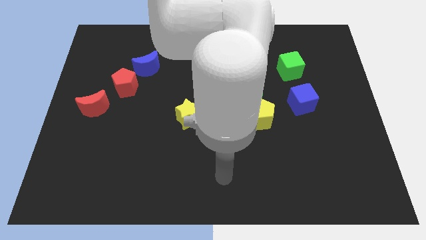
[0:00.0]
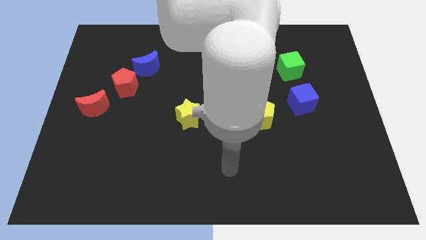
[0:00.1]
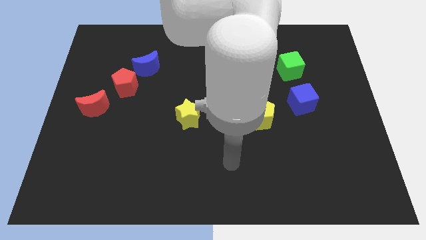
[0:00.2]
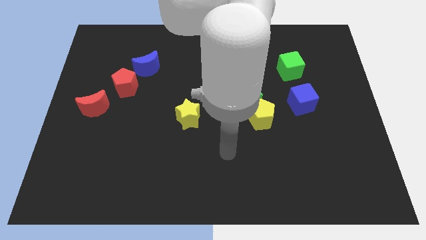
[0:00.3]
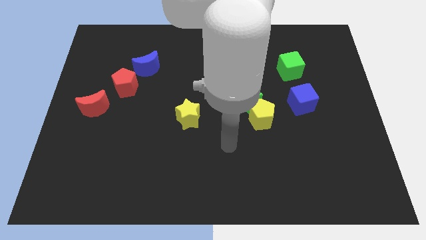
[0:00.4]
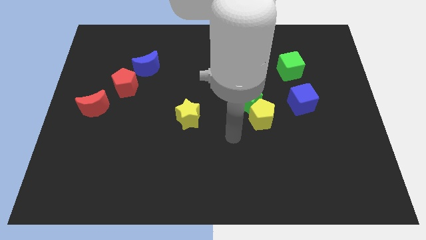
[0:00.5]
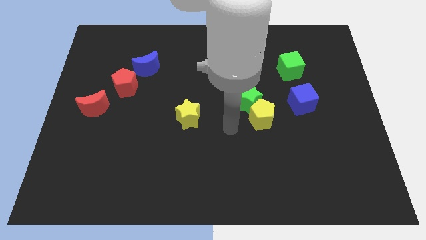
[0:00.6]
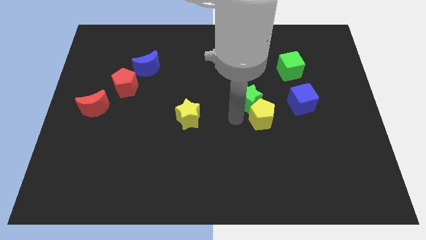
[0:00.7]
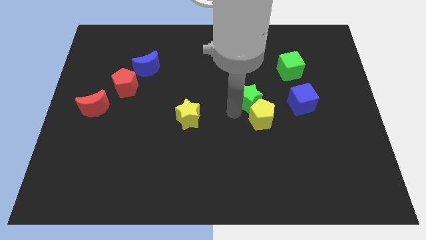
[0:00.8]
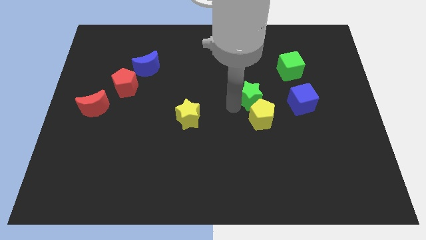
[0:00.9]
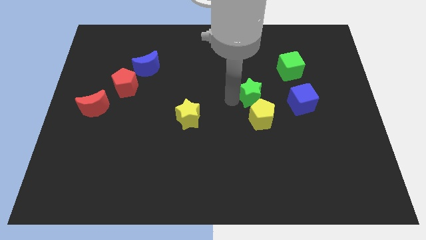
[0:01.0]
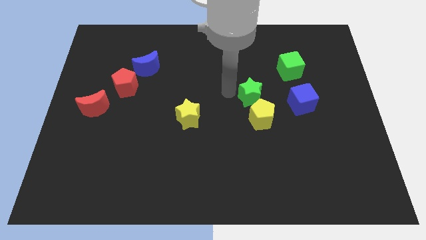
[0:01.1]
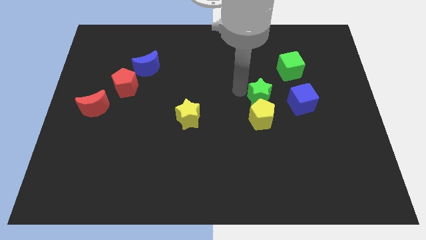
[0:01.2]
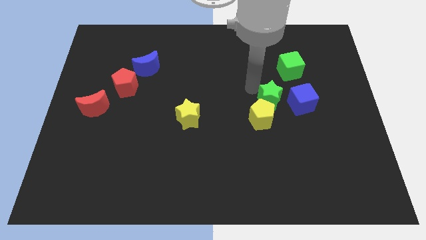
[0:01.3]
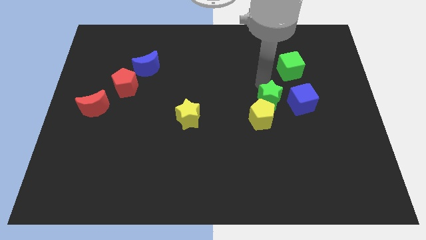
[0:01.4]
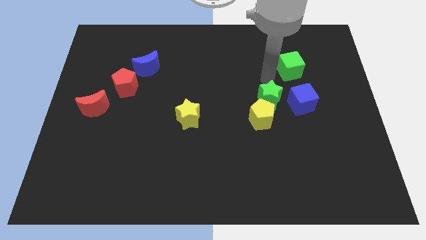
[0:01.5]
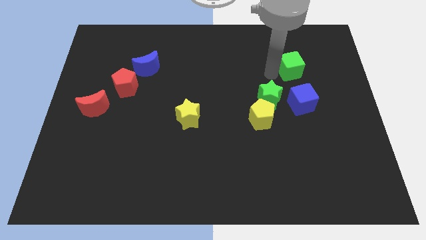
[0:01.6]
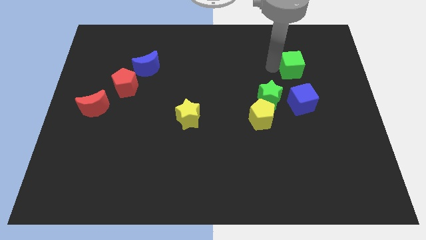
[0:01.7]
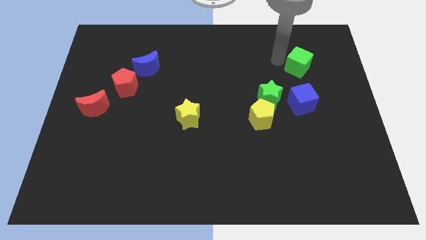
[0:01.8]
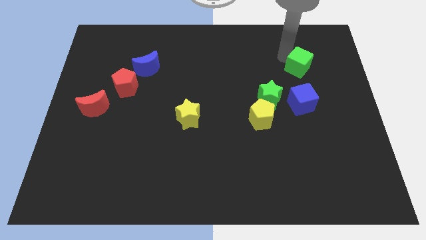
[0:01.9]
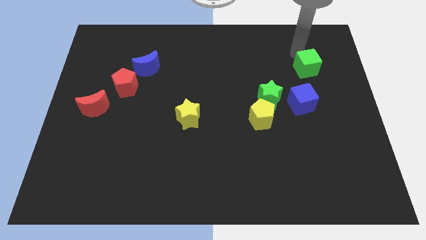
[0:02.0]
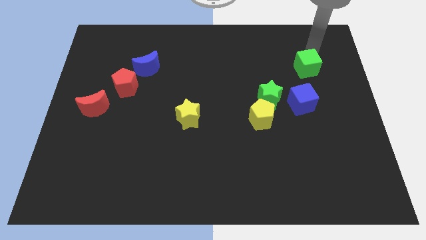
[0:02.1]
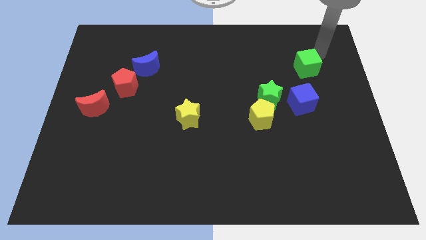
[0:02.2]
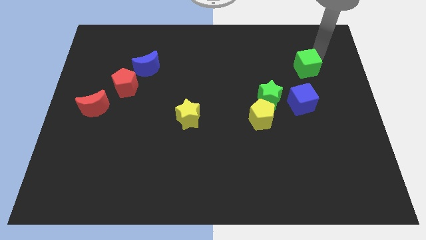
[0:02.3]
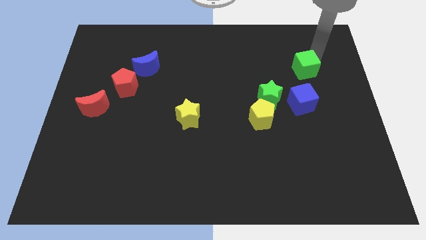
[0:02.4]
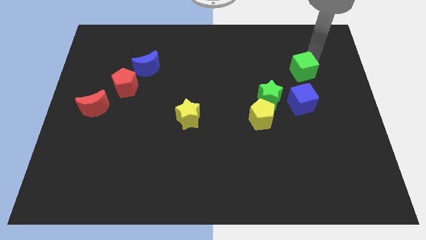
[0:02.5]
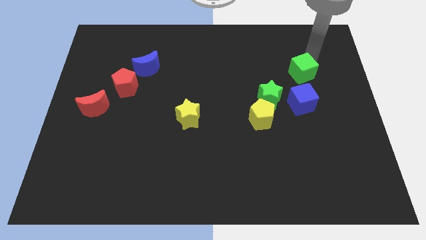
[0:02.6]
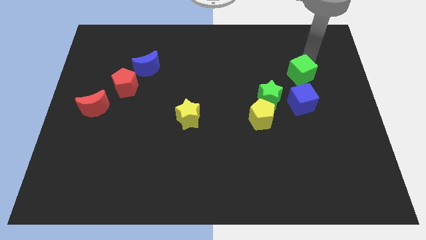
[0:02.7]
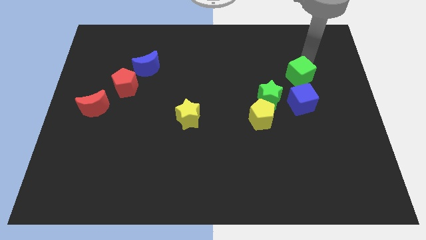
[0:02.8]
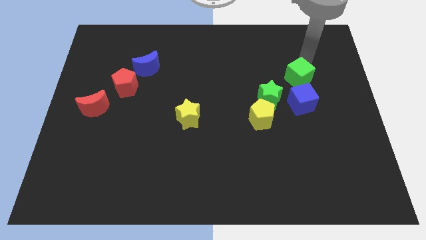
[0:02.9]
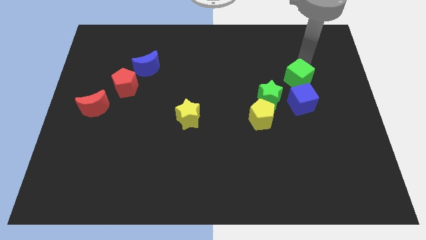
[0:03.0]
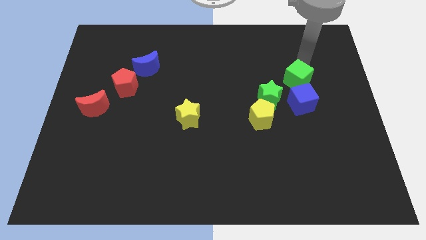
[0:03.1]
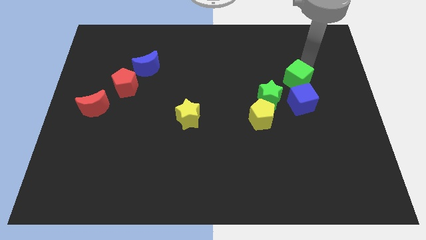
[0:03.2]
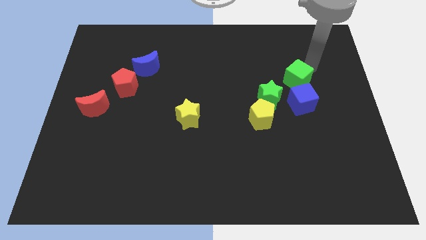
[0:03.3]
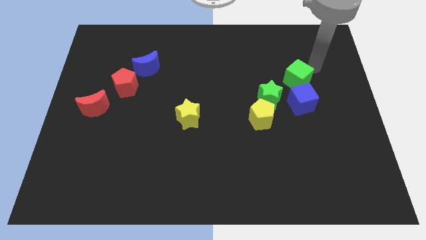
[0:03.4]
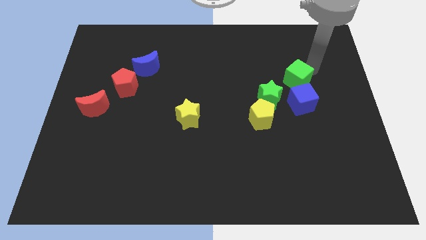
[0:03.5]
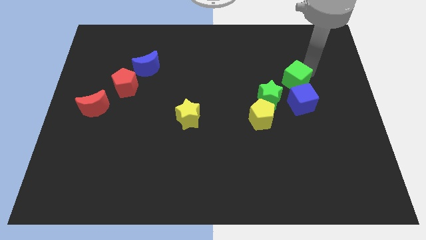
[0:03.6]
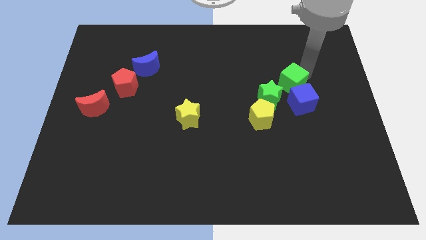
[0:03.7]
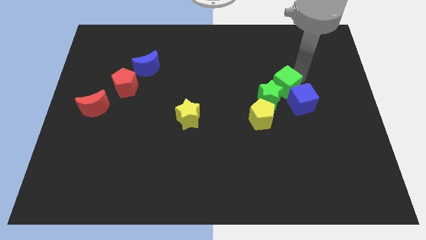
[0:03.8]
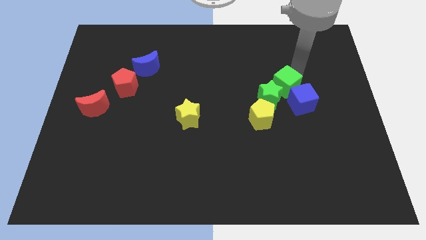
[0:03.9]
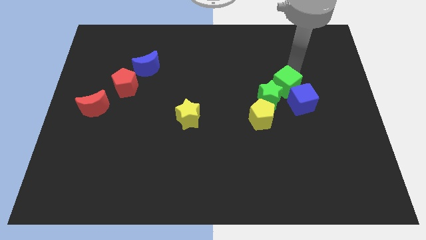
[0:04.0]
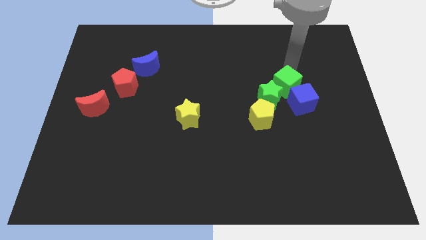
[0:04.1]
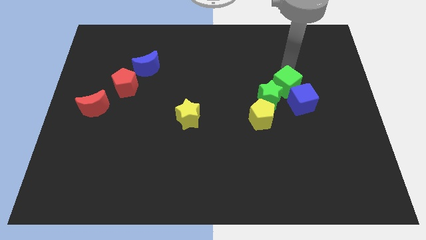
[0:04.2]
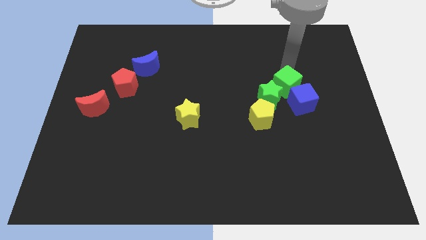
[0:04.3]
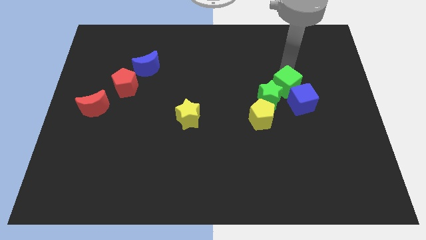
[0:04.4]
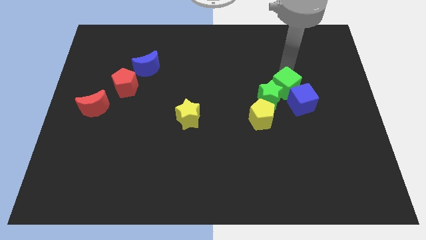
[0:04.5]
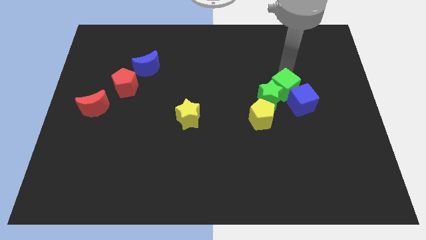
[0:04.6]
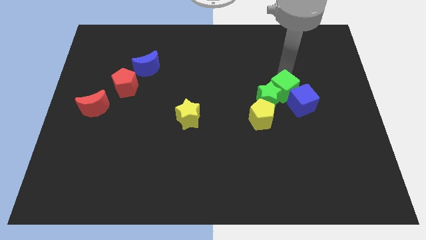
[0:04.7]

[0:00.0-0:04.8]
push the green cube down a bit

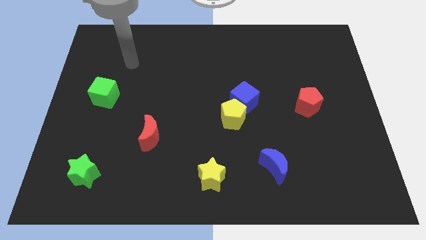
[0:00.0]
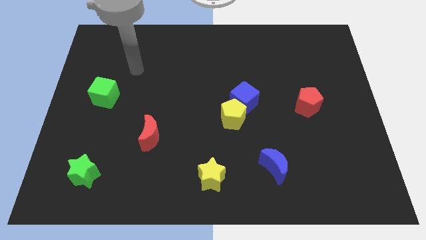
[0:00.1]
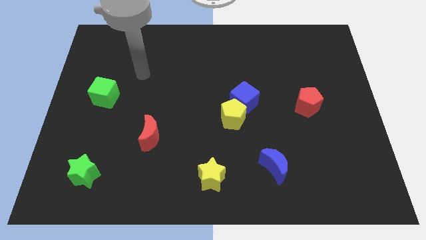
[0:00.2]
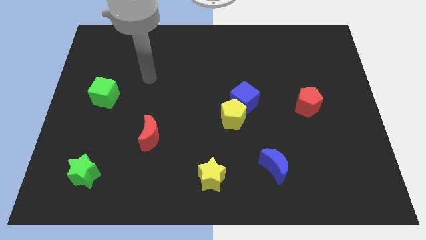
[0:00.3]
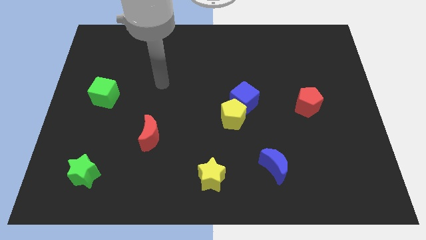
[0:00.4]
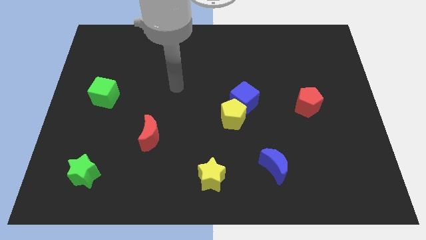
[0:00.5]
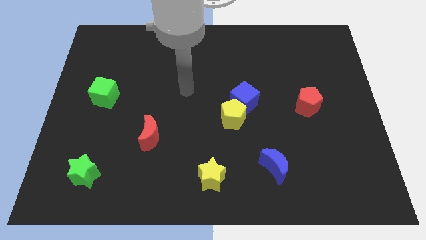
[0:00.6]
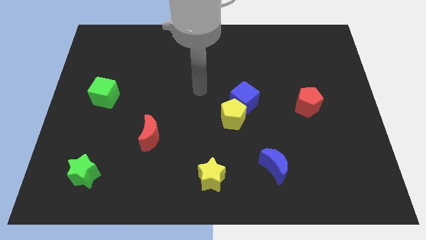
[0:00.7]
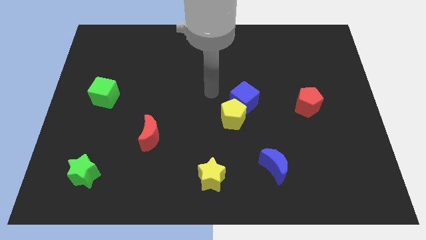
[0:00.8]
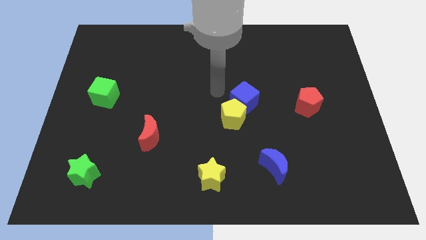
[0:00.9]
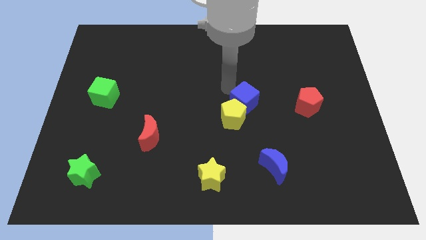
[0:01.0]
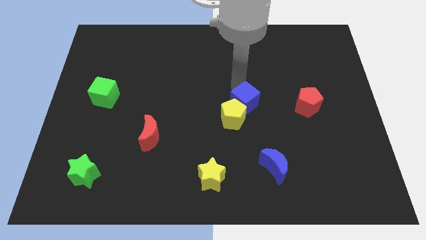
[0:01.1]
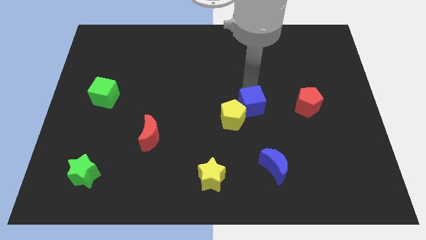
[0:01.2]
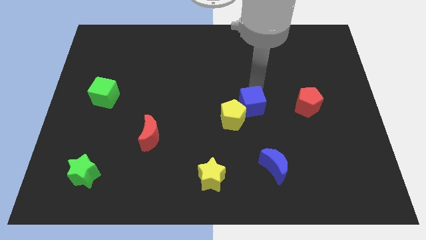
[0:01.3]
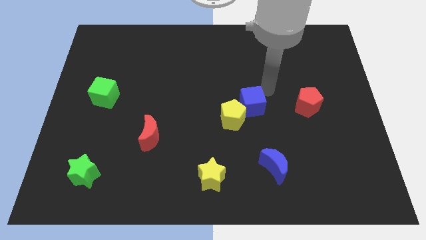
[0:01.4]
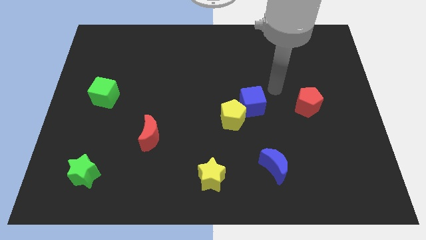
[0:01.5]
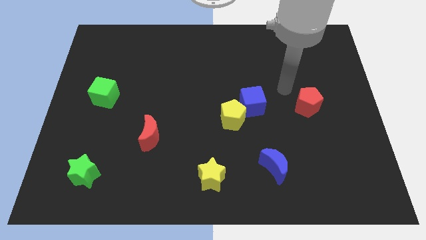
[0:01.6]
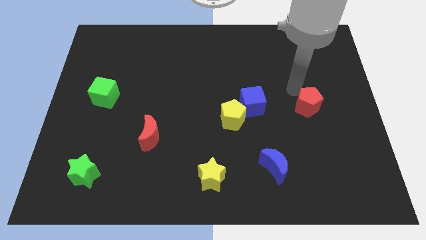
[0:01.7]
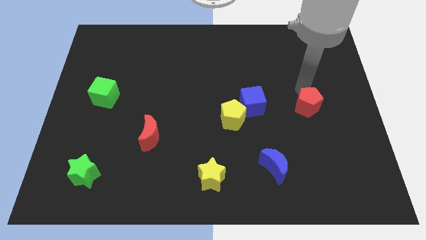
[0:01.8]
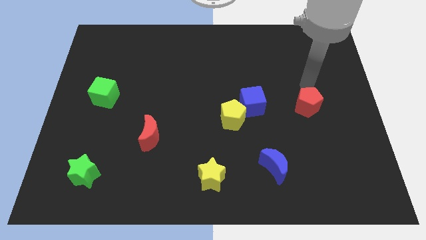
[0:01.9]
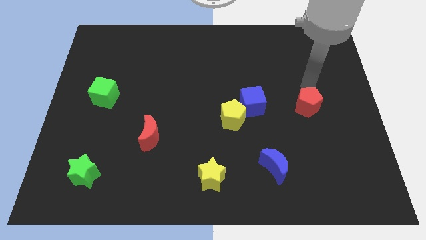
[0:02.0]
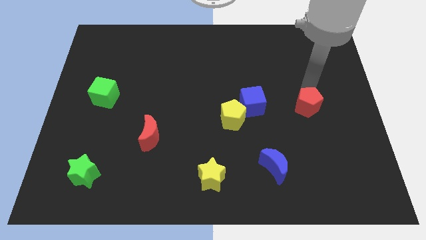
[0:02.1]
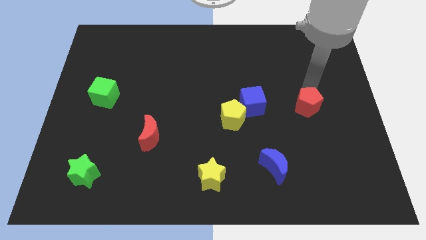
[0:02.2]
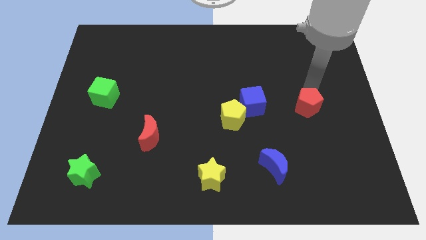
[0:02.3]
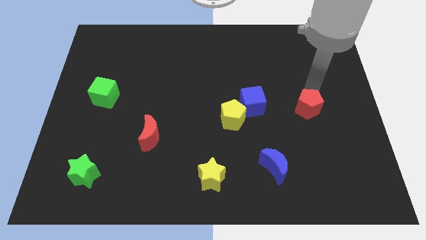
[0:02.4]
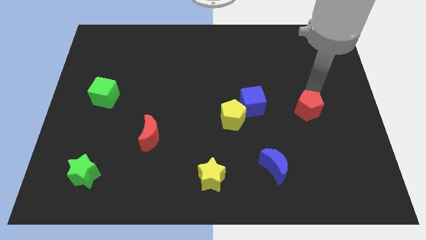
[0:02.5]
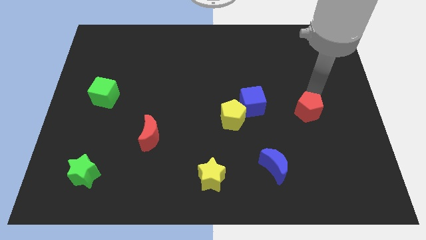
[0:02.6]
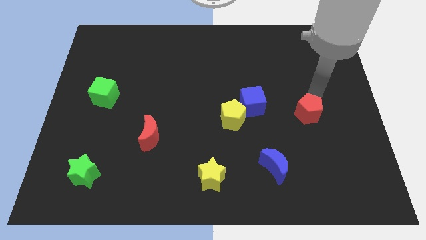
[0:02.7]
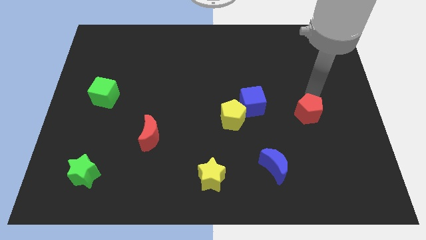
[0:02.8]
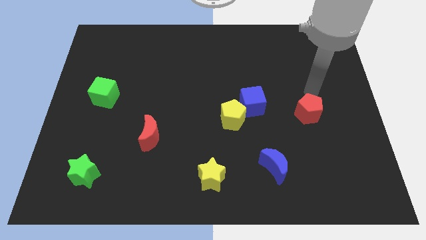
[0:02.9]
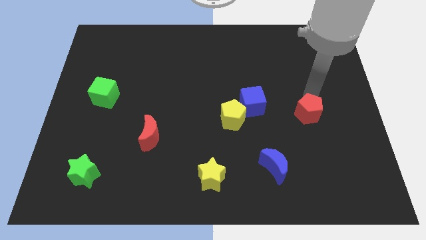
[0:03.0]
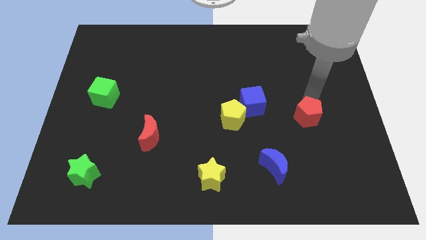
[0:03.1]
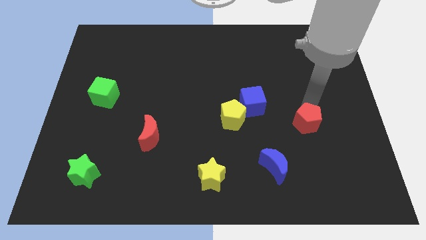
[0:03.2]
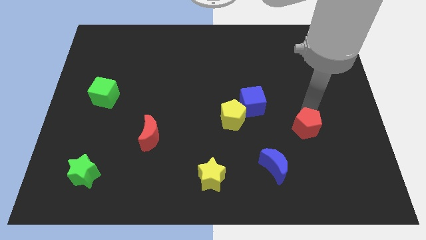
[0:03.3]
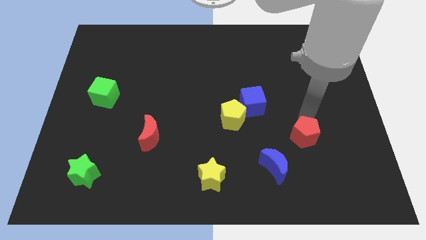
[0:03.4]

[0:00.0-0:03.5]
slide the red pentagon a little bit down
